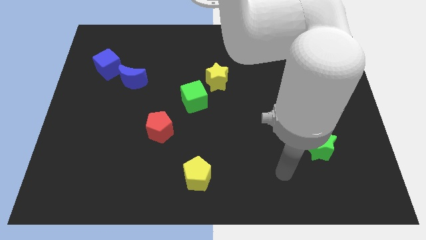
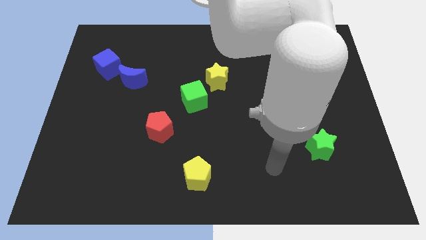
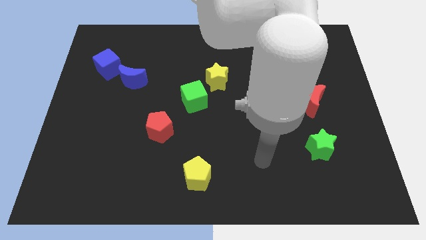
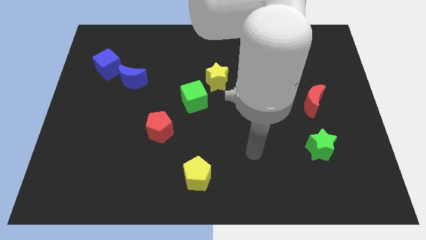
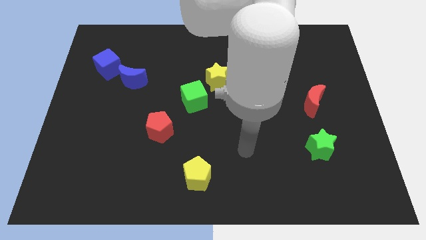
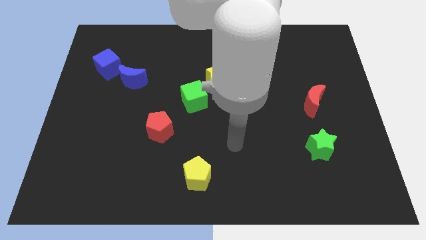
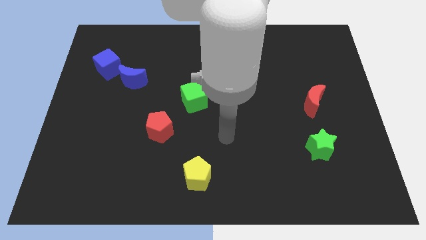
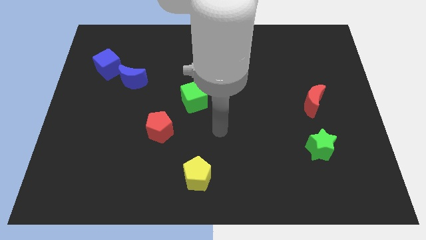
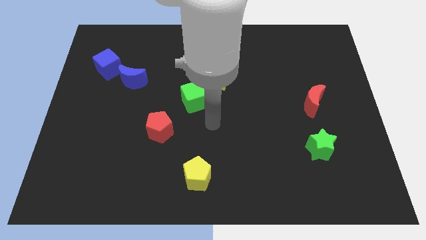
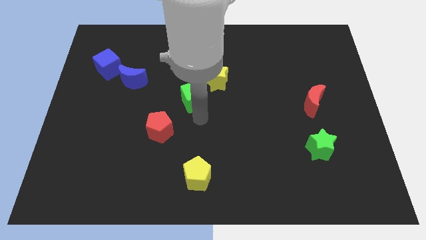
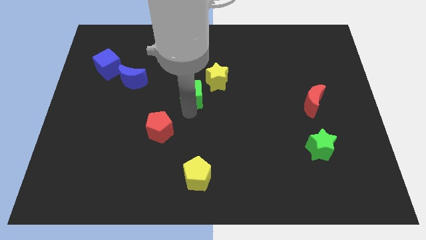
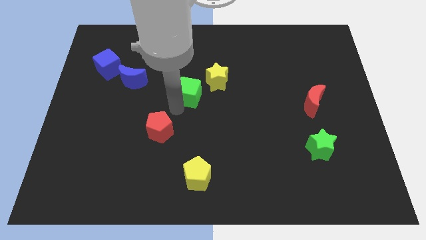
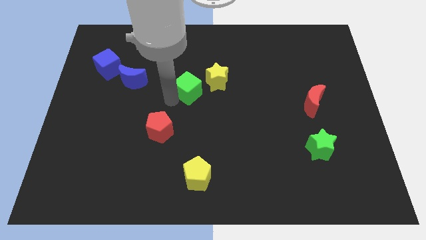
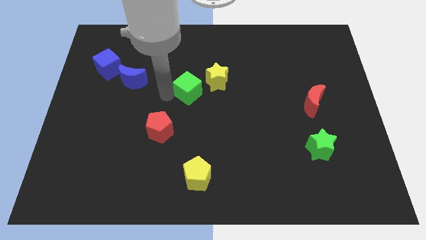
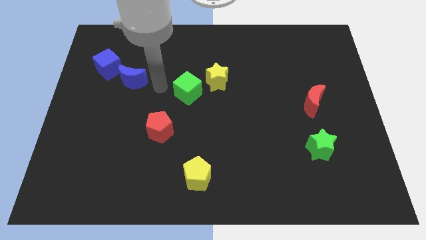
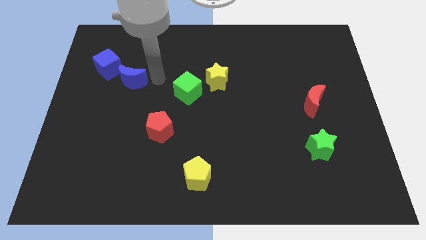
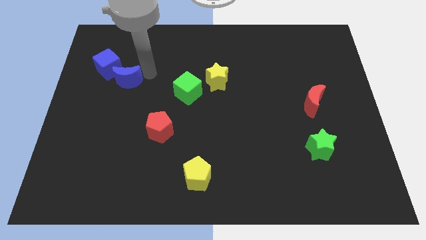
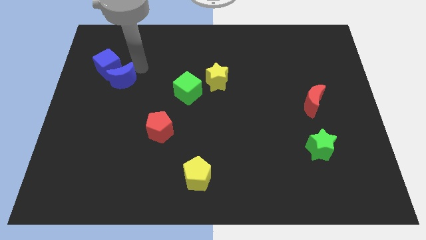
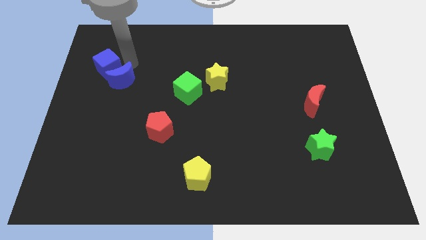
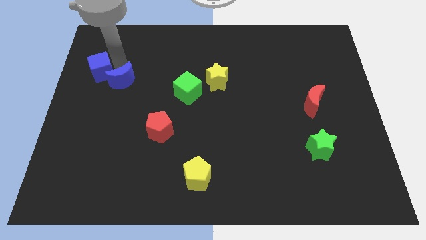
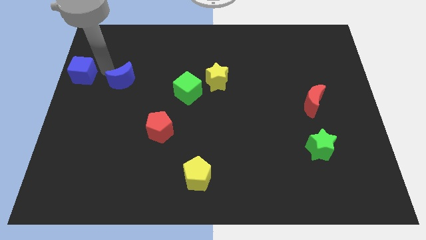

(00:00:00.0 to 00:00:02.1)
move the blue moon away from the blue cube

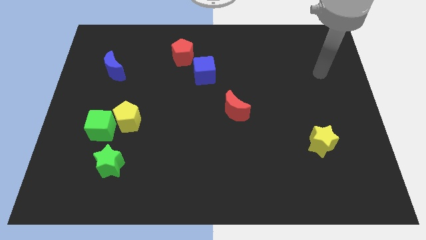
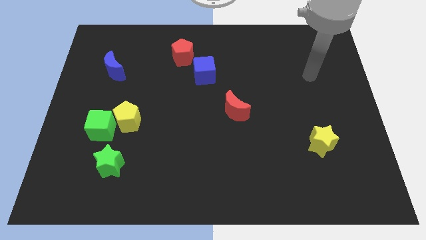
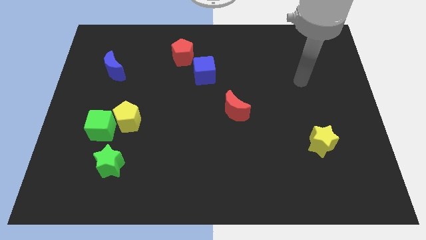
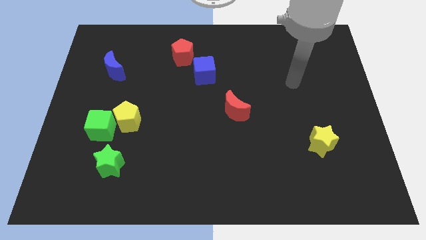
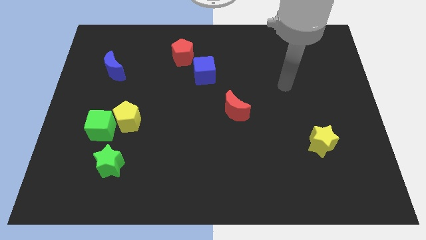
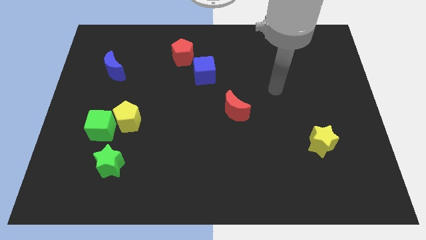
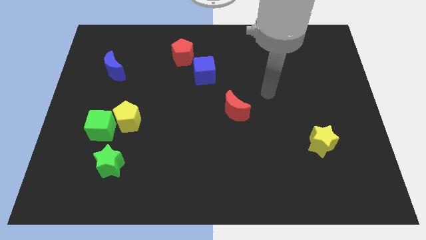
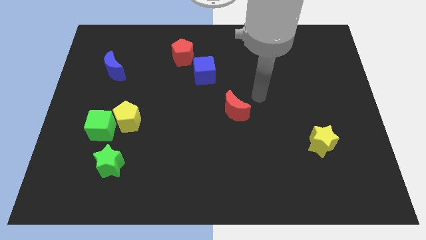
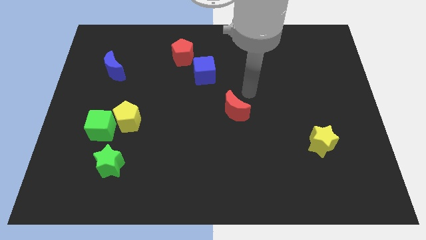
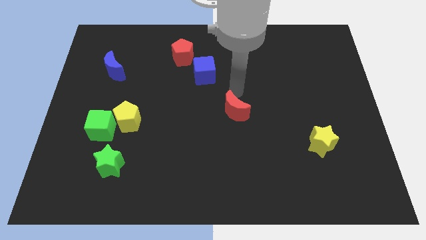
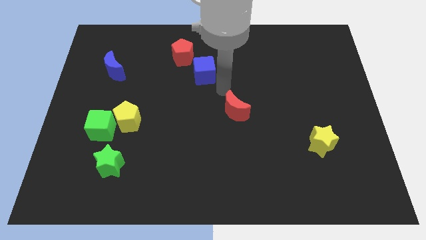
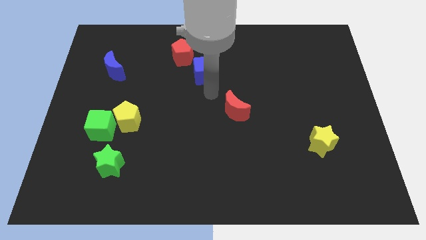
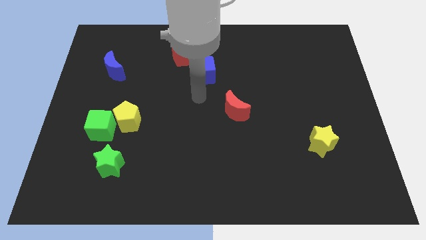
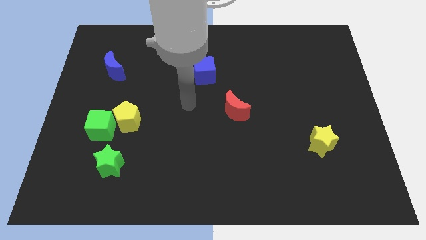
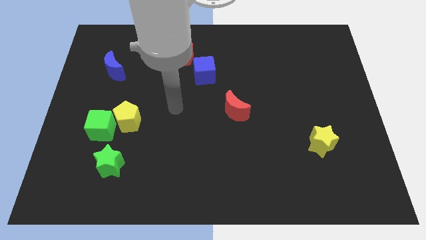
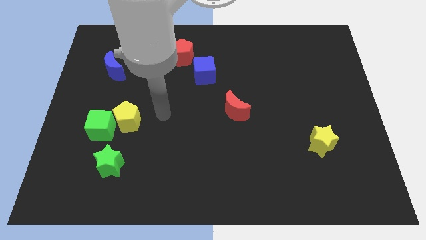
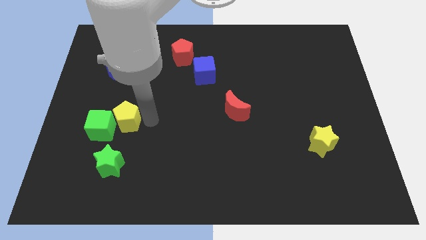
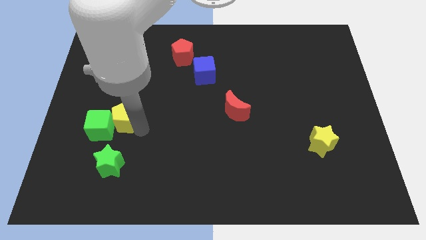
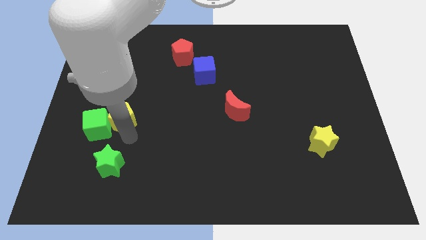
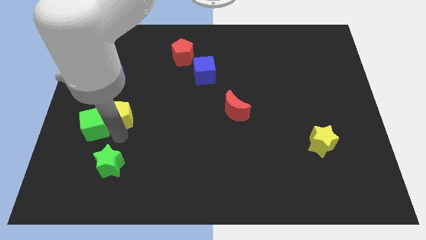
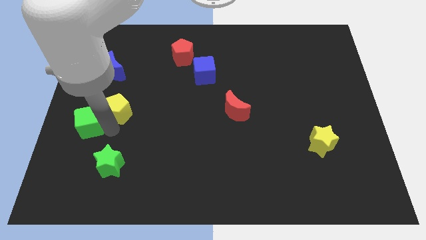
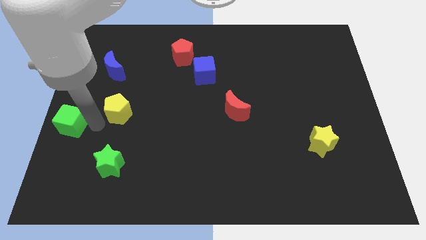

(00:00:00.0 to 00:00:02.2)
separate the yellow pentagon from the green cube

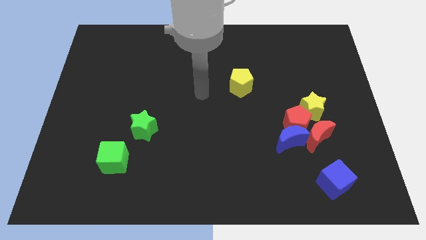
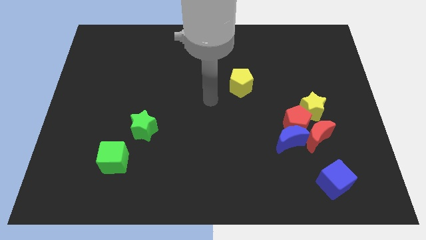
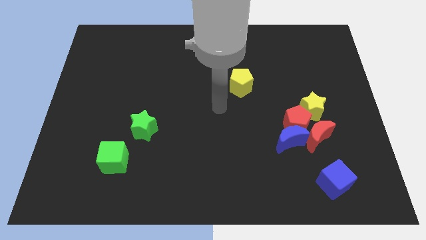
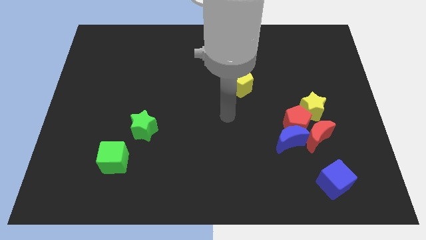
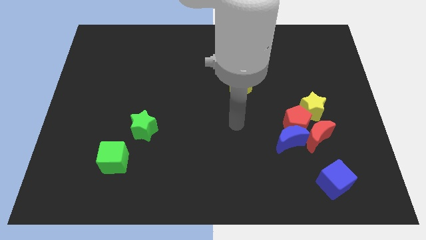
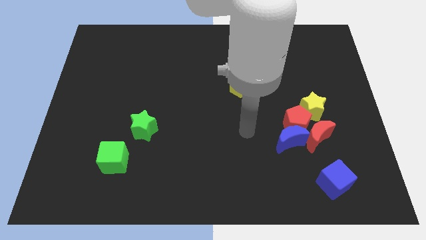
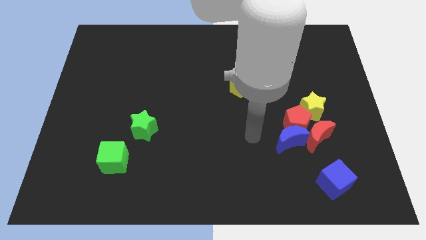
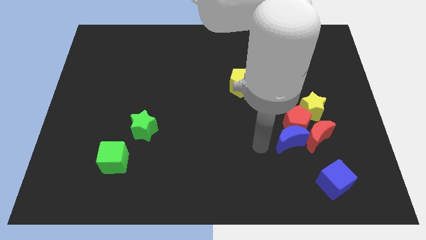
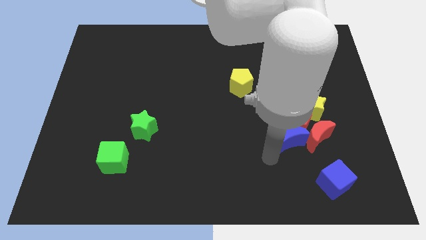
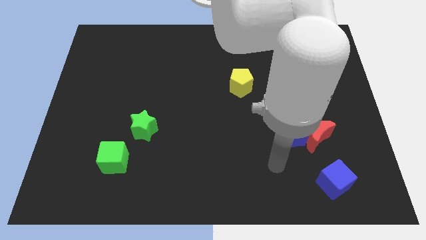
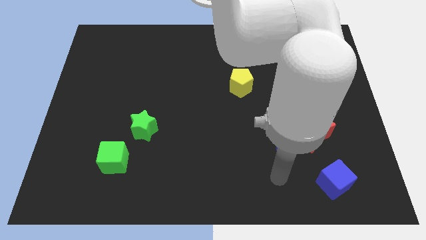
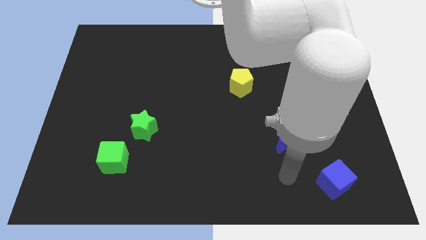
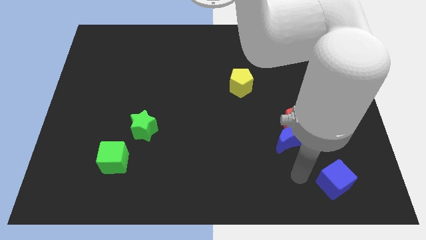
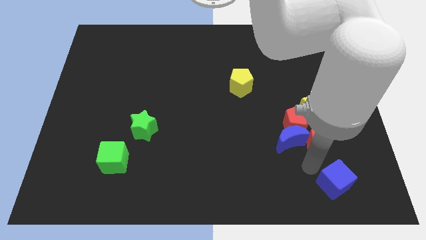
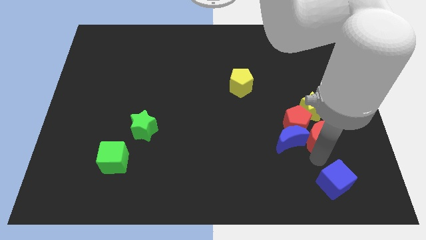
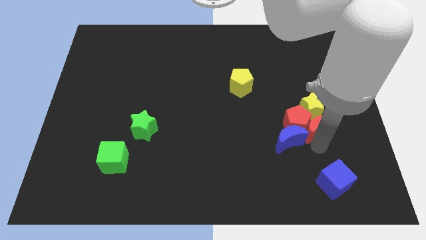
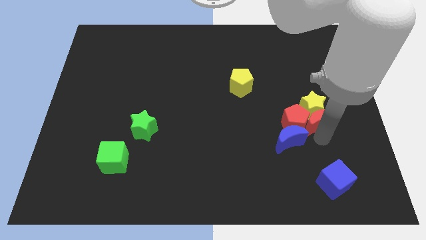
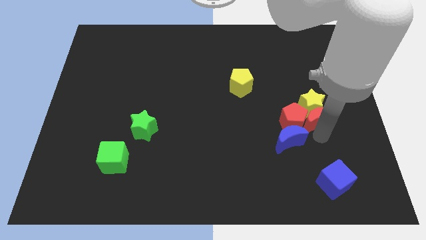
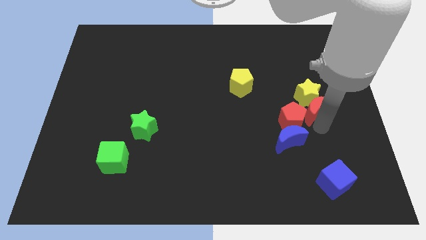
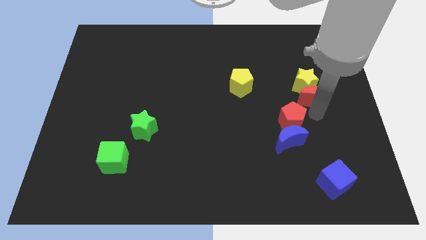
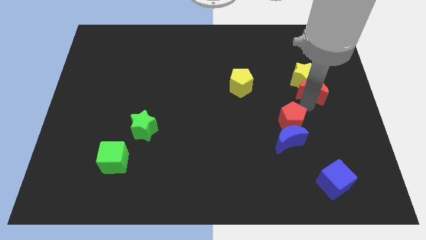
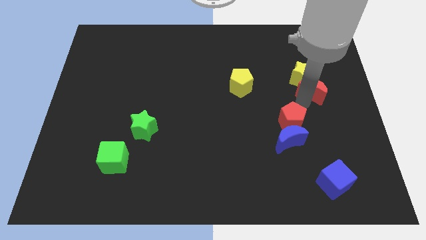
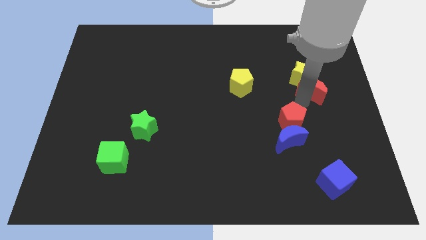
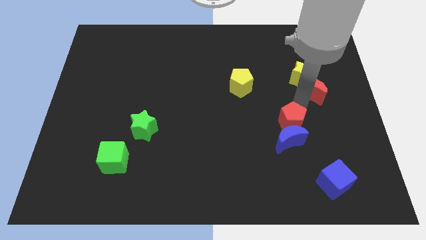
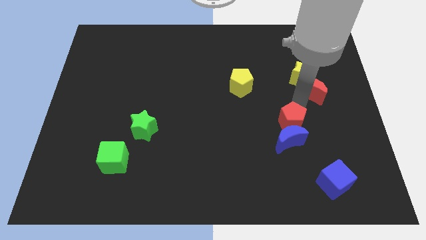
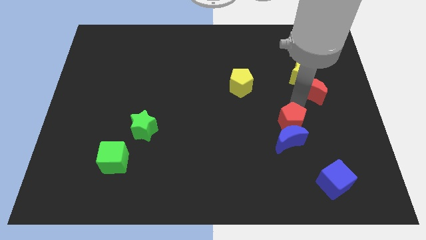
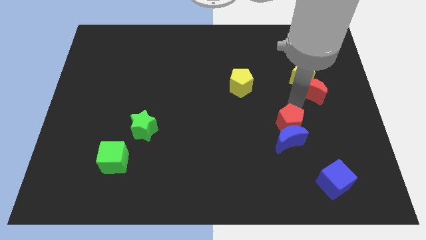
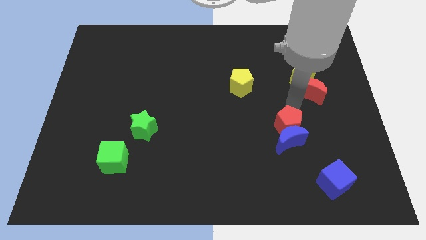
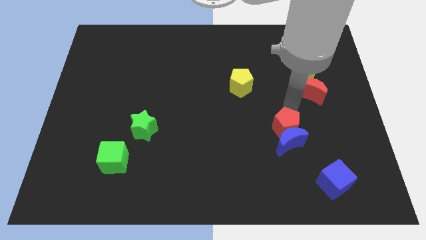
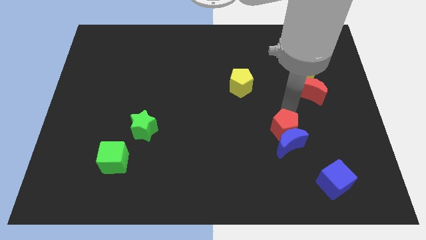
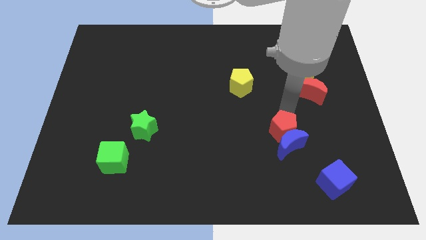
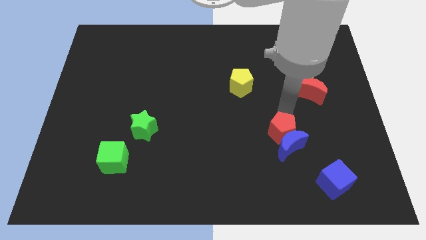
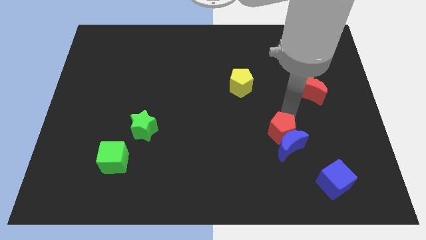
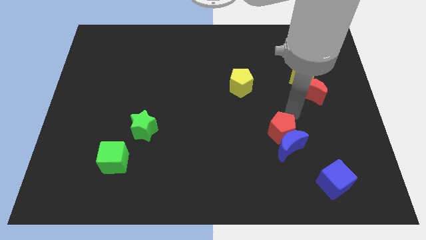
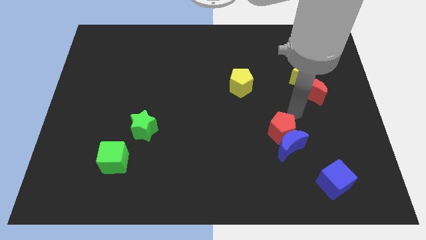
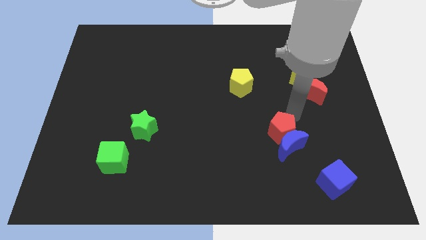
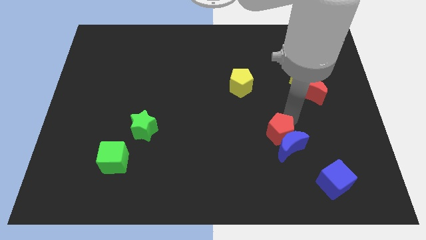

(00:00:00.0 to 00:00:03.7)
separate the red pentagon from the group

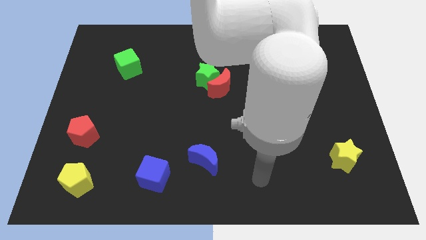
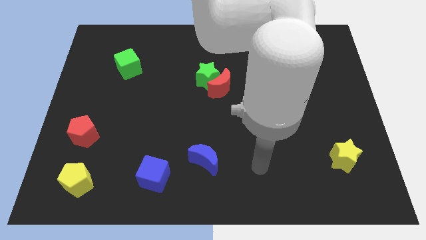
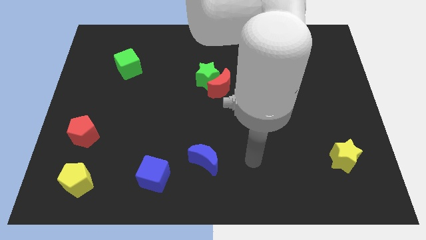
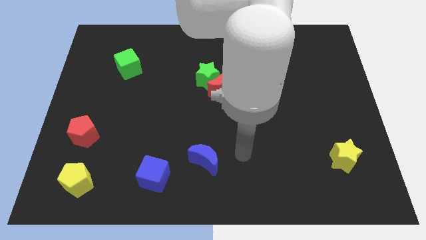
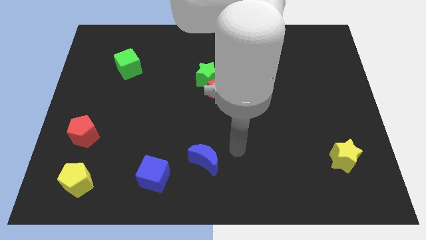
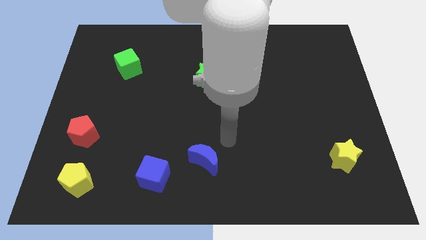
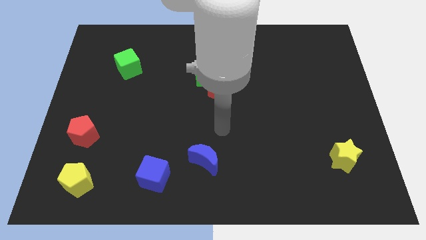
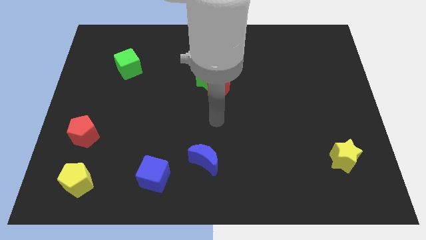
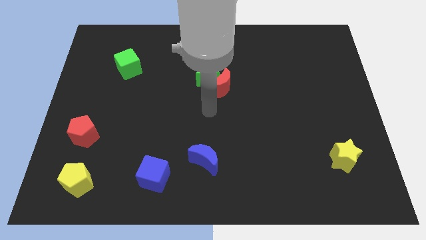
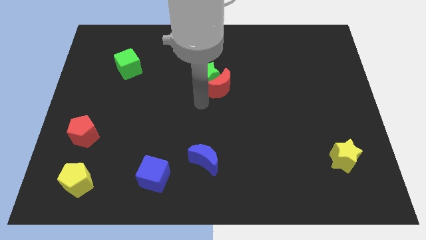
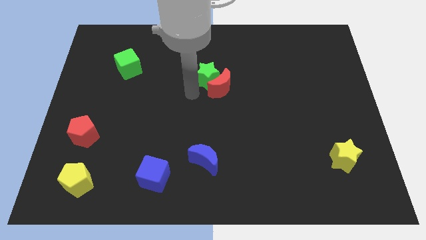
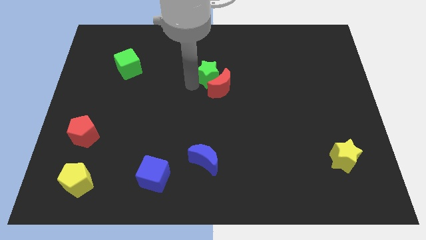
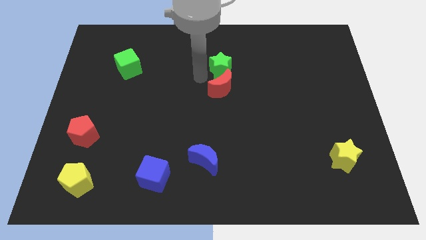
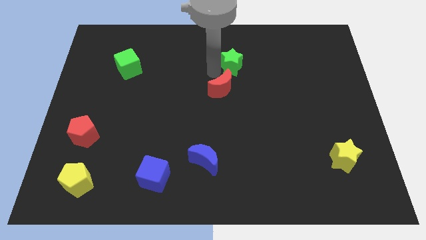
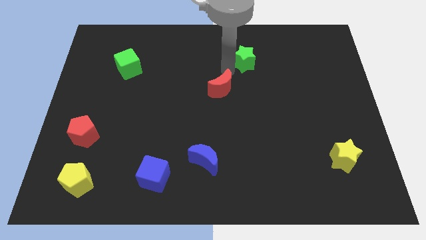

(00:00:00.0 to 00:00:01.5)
move the red moon away from the green star
